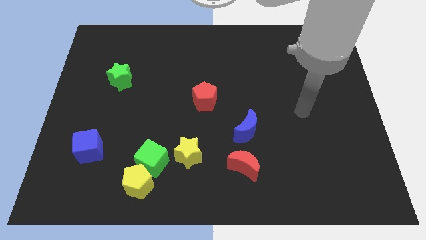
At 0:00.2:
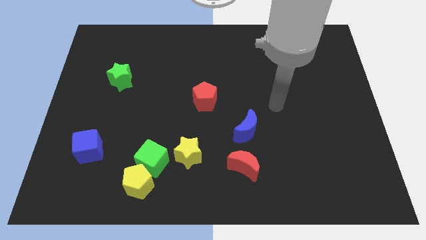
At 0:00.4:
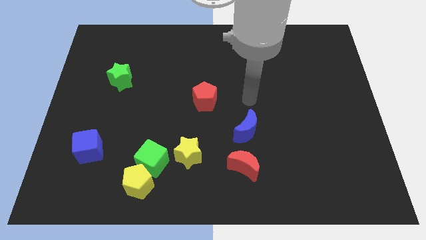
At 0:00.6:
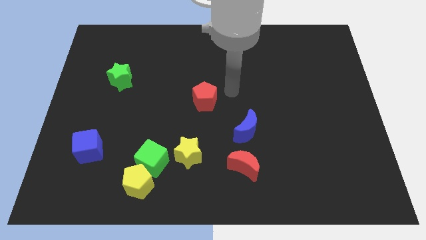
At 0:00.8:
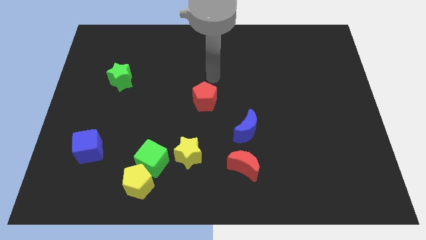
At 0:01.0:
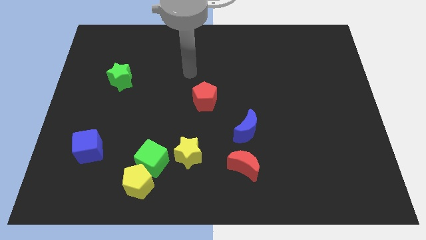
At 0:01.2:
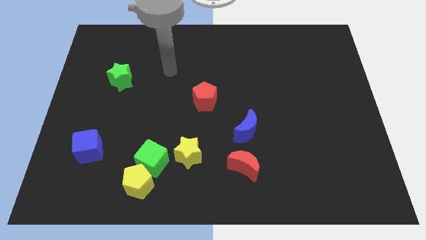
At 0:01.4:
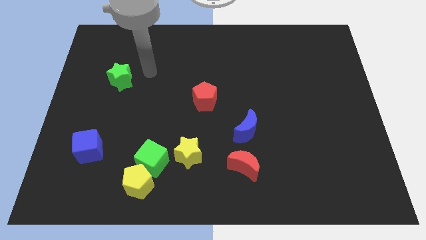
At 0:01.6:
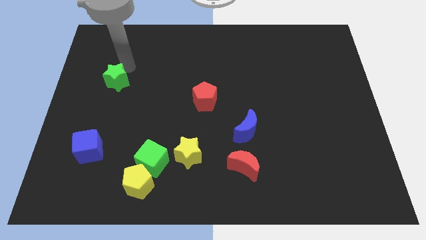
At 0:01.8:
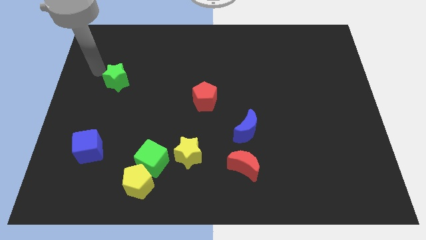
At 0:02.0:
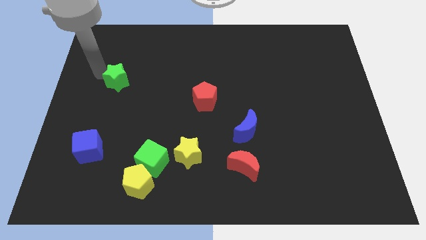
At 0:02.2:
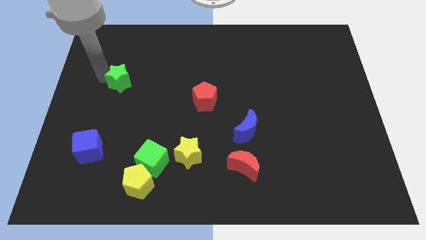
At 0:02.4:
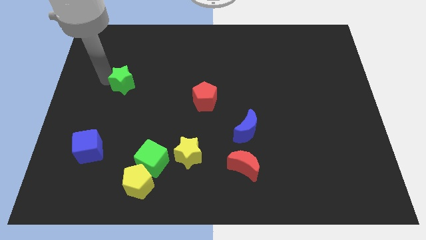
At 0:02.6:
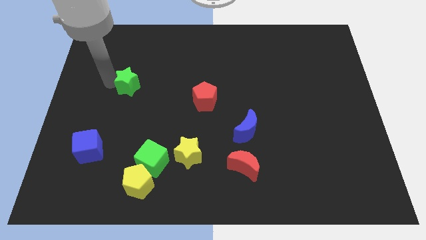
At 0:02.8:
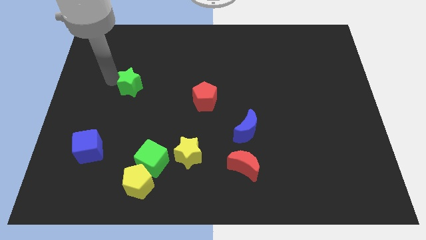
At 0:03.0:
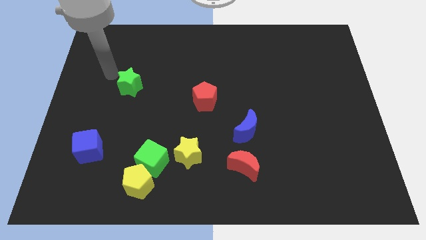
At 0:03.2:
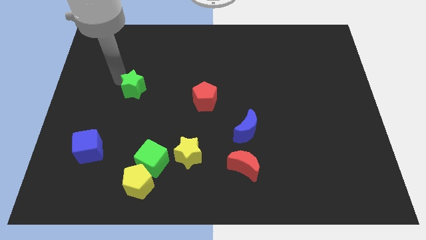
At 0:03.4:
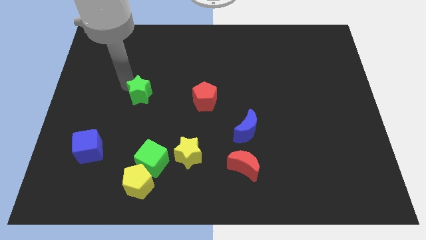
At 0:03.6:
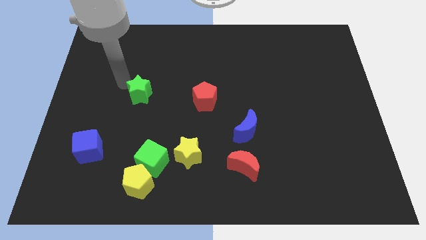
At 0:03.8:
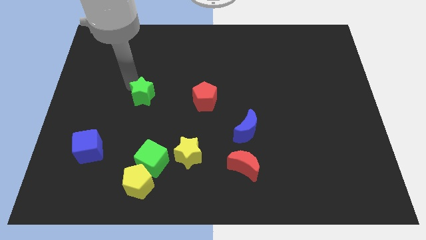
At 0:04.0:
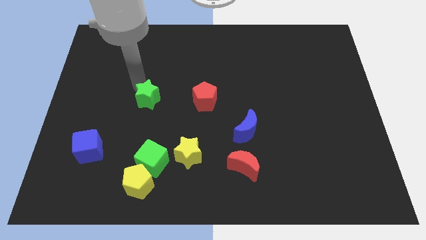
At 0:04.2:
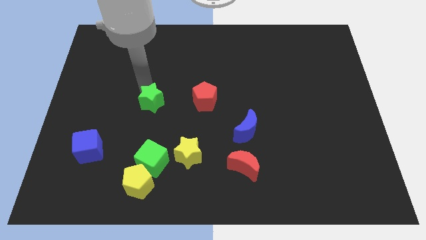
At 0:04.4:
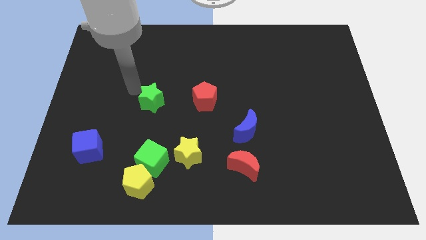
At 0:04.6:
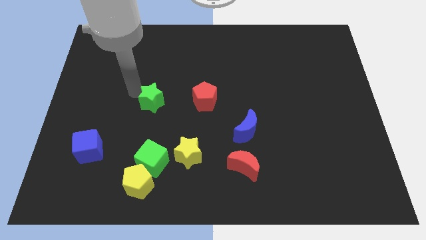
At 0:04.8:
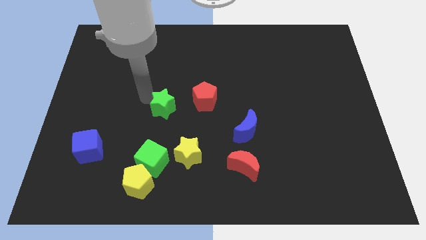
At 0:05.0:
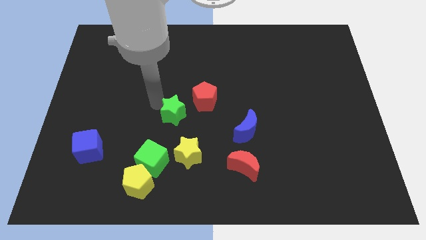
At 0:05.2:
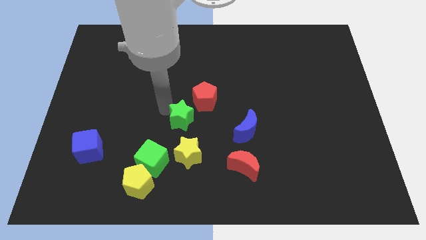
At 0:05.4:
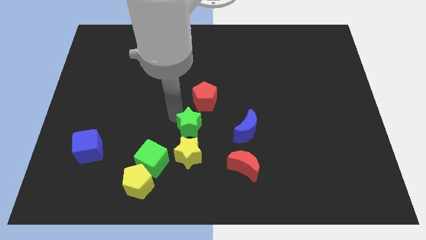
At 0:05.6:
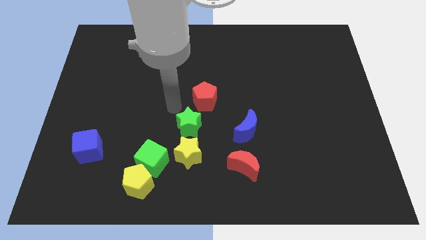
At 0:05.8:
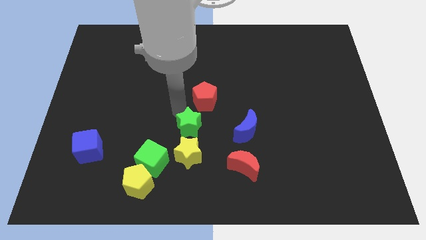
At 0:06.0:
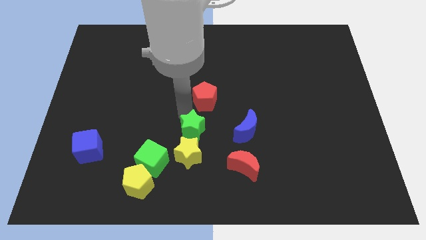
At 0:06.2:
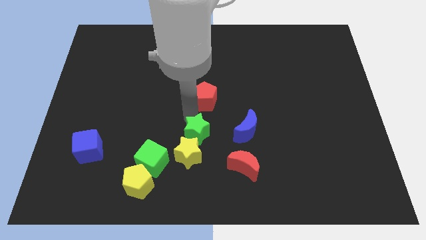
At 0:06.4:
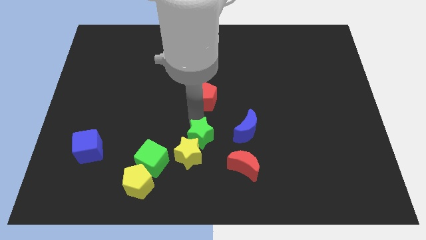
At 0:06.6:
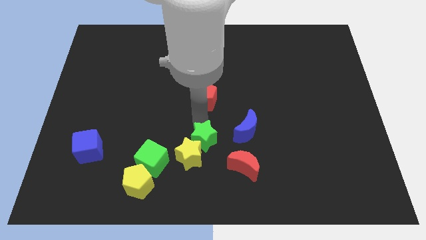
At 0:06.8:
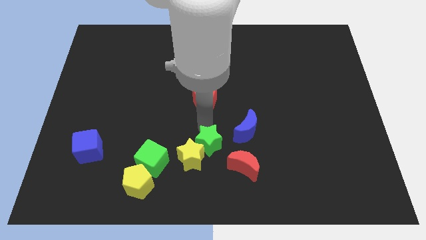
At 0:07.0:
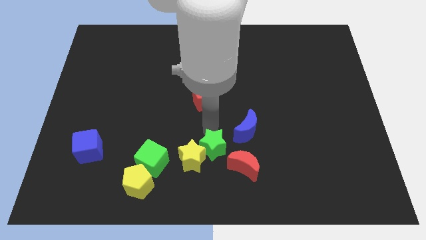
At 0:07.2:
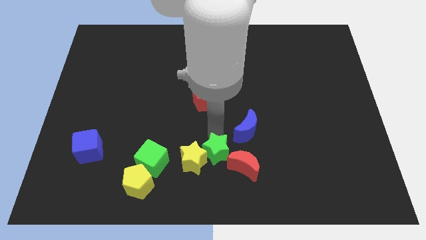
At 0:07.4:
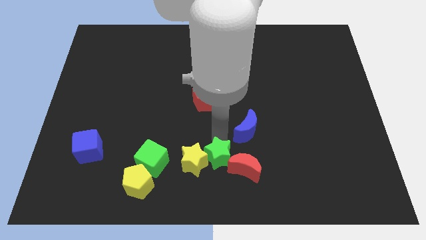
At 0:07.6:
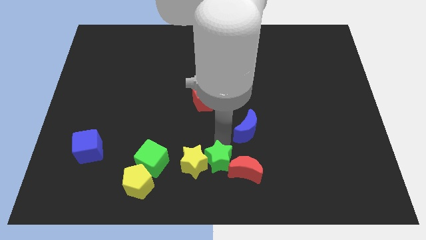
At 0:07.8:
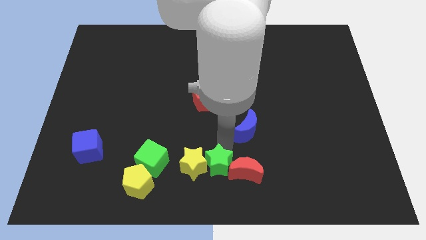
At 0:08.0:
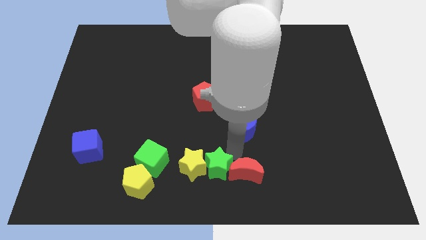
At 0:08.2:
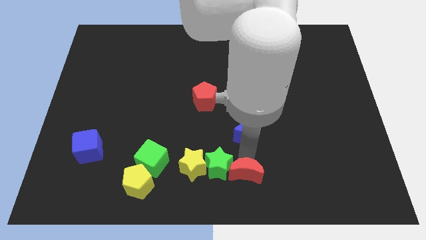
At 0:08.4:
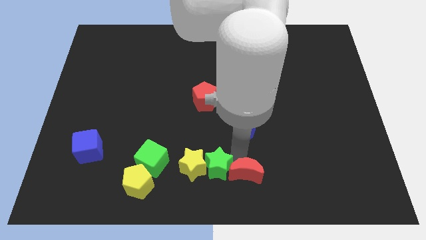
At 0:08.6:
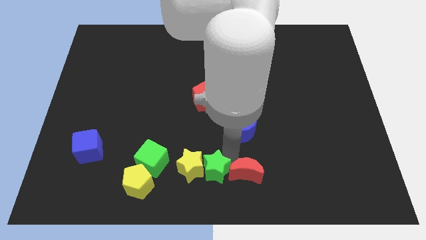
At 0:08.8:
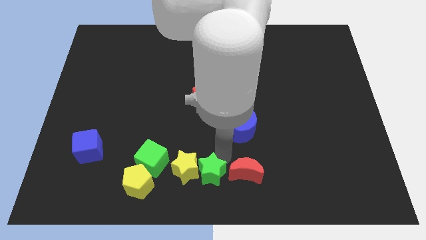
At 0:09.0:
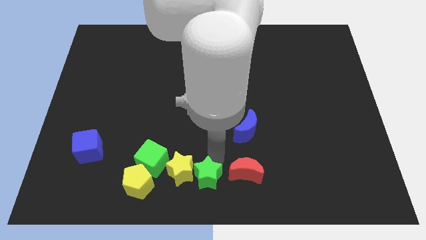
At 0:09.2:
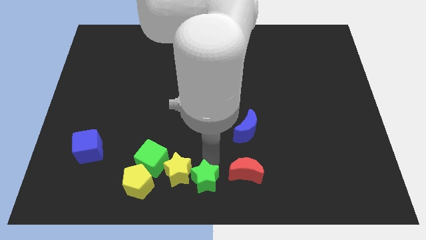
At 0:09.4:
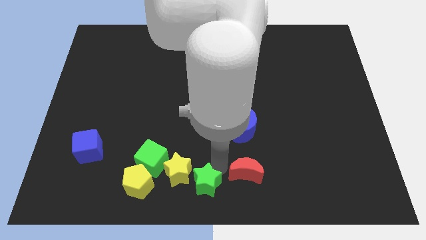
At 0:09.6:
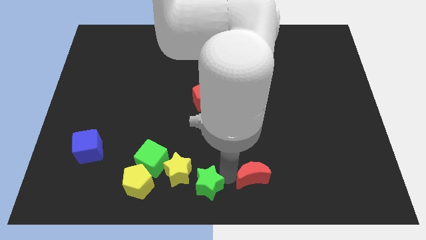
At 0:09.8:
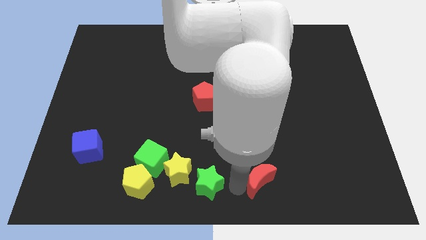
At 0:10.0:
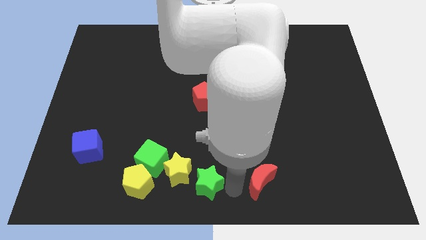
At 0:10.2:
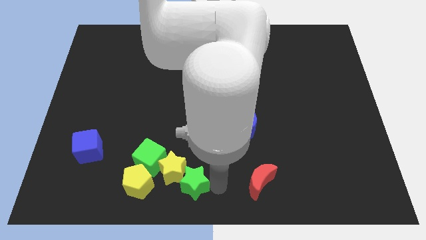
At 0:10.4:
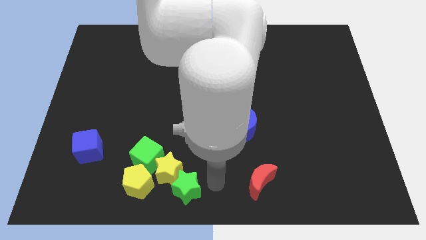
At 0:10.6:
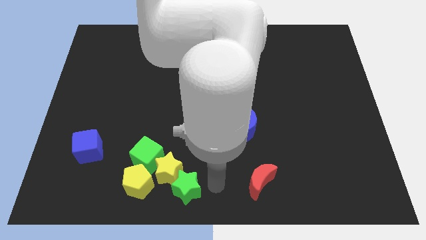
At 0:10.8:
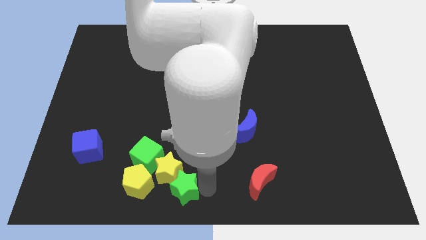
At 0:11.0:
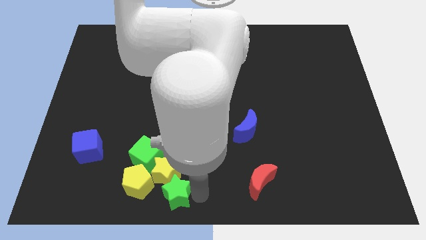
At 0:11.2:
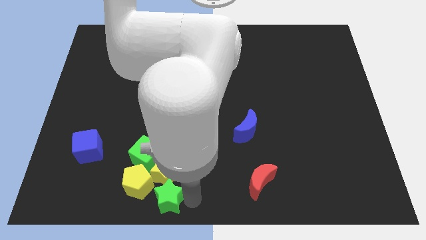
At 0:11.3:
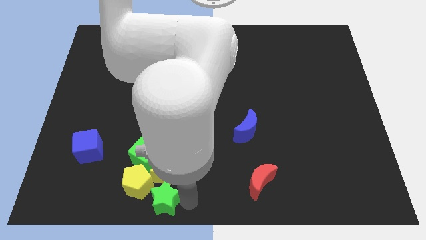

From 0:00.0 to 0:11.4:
move the green star diagonally down and to the left of the yellow star

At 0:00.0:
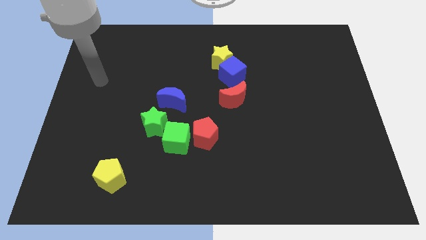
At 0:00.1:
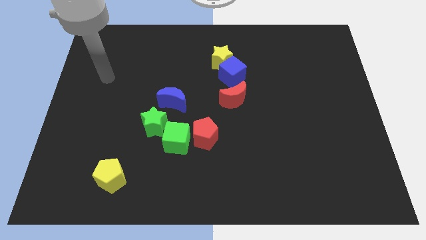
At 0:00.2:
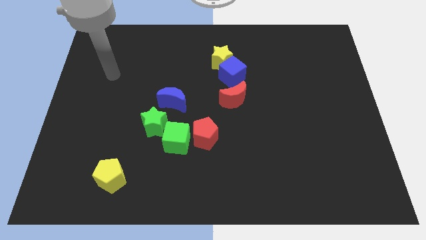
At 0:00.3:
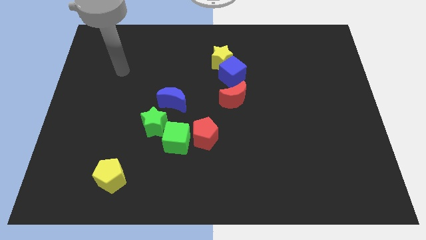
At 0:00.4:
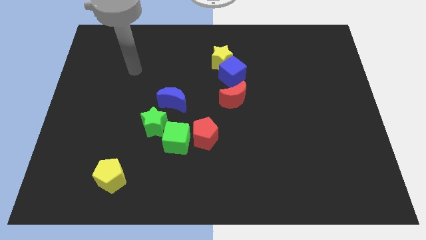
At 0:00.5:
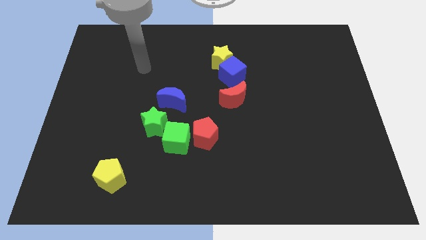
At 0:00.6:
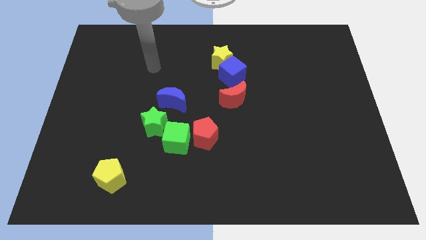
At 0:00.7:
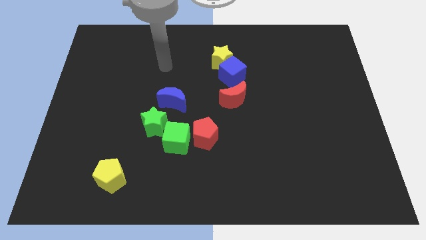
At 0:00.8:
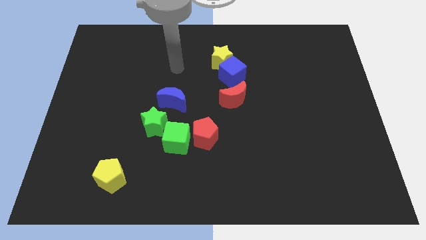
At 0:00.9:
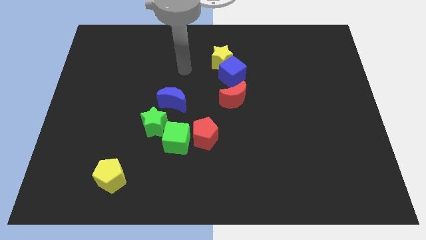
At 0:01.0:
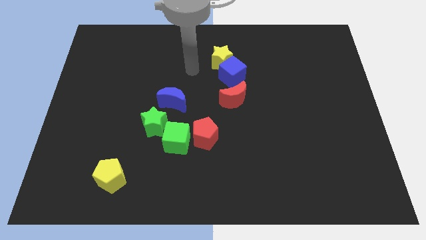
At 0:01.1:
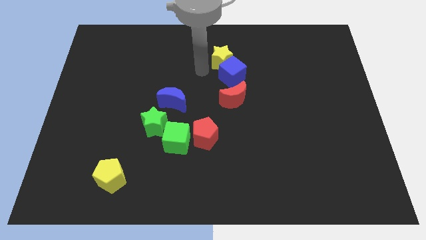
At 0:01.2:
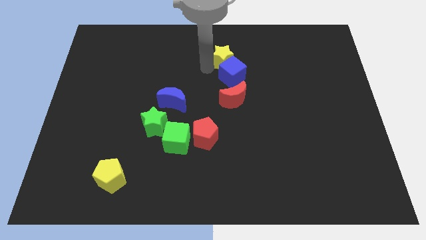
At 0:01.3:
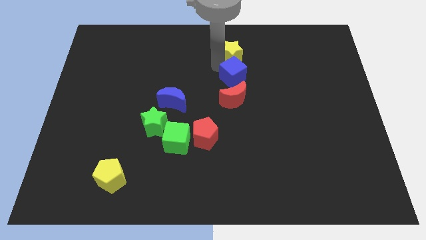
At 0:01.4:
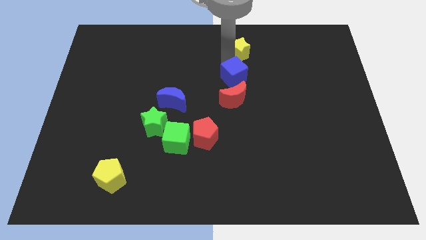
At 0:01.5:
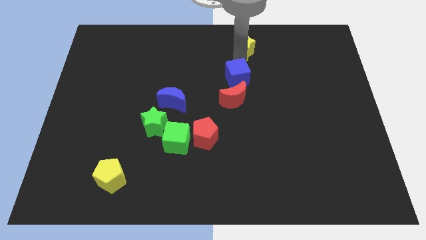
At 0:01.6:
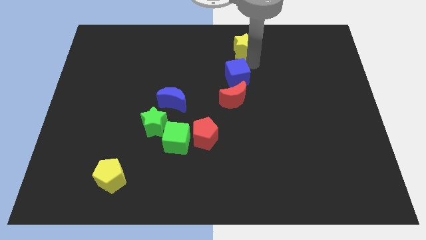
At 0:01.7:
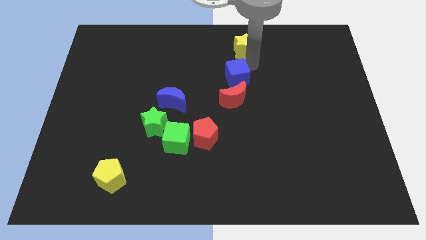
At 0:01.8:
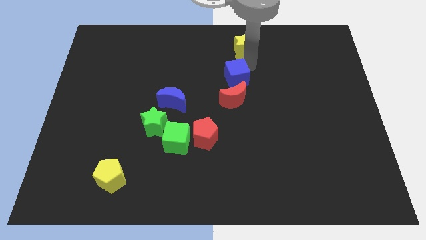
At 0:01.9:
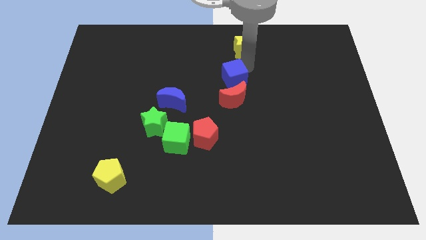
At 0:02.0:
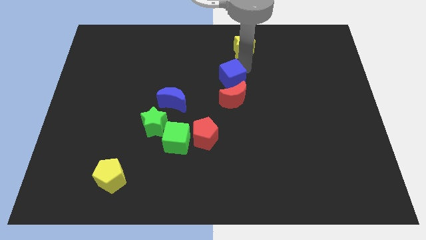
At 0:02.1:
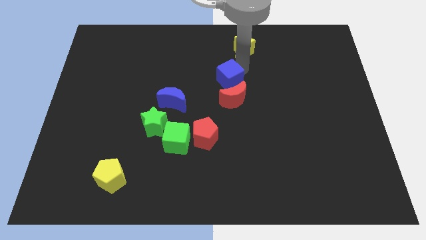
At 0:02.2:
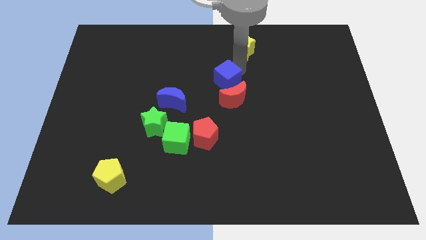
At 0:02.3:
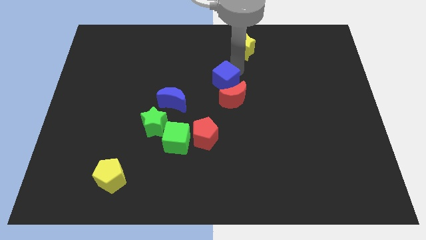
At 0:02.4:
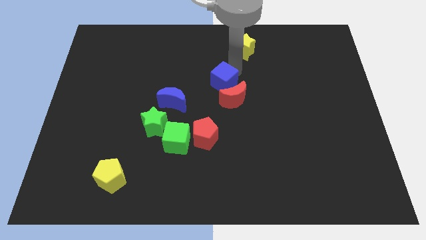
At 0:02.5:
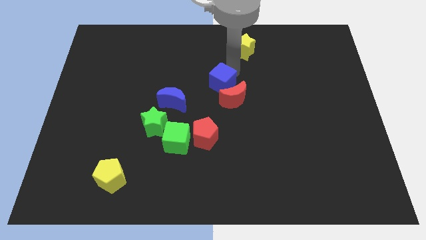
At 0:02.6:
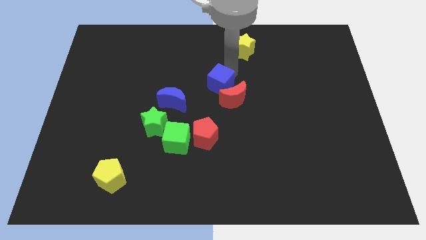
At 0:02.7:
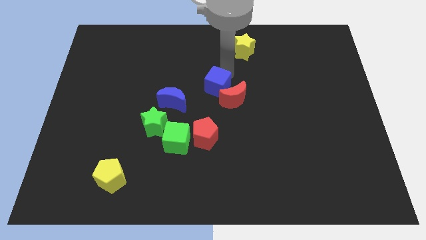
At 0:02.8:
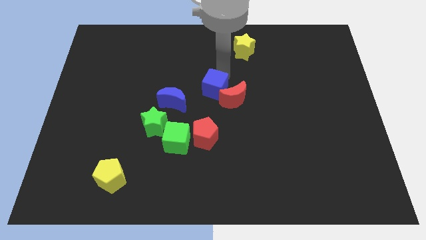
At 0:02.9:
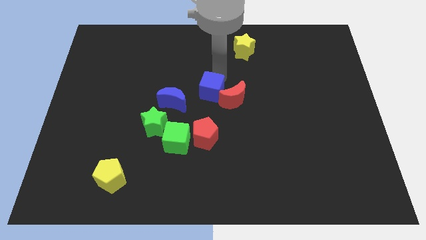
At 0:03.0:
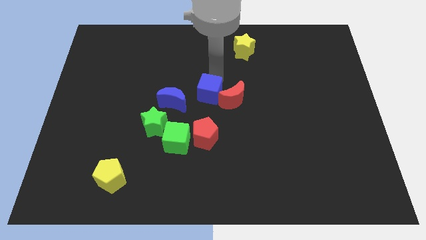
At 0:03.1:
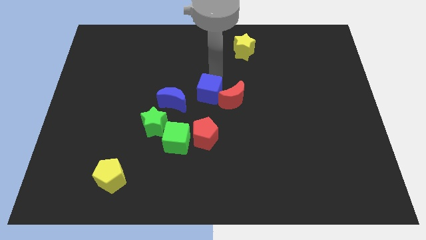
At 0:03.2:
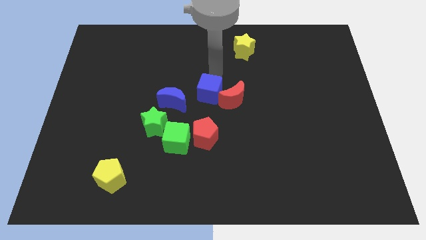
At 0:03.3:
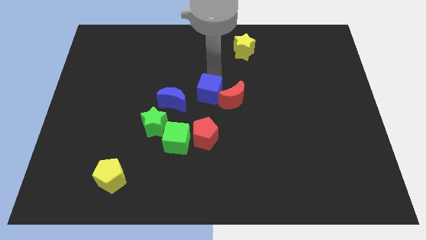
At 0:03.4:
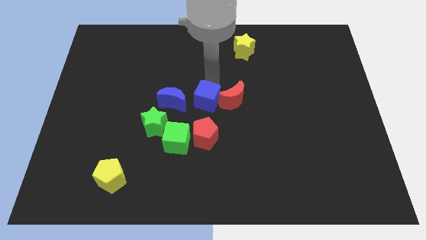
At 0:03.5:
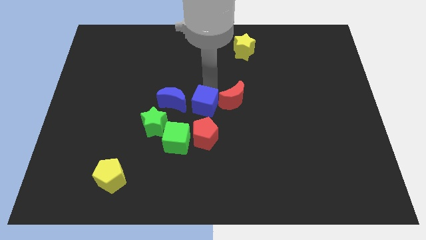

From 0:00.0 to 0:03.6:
move the blue cube diagonally up and to the right of the green cube
